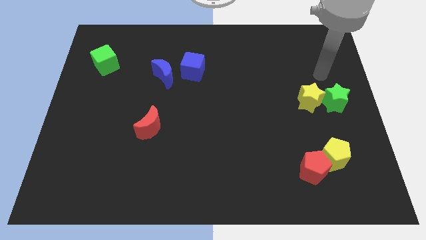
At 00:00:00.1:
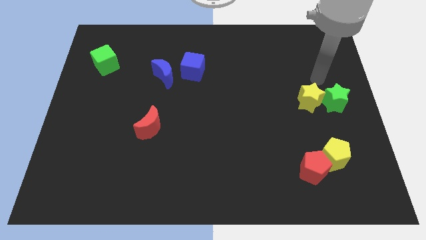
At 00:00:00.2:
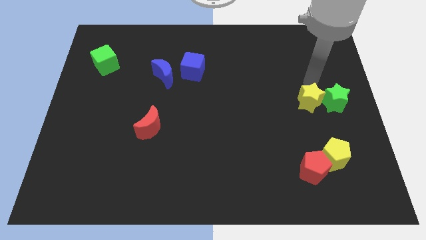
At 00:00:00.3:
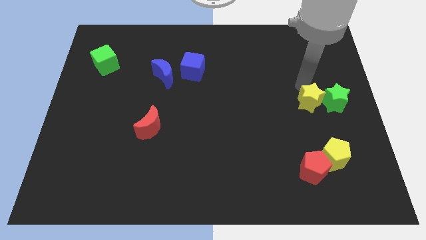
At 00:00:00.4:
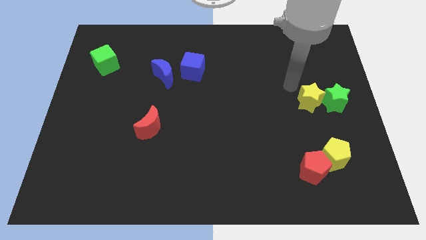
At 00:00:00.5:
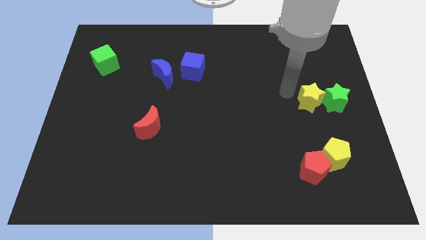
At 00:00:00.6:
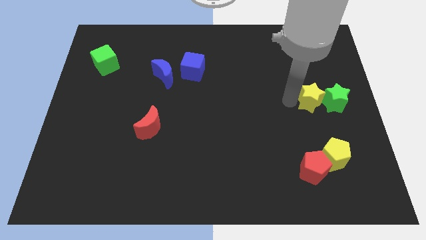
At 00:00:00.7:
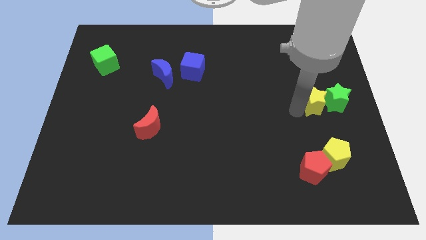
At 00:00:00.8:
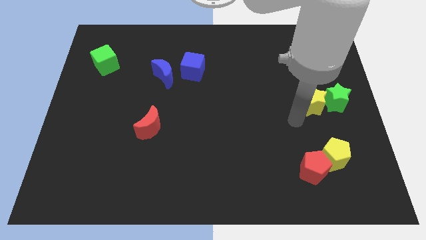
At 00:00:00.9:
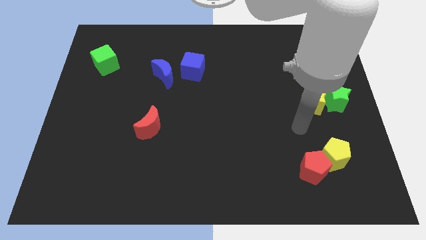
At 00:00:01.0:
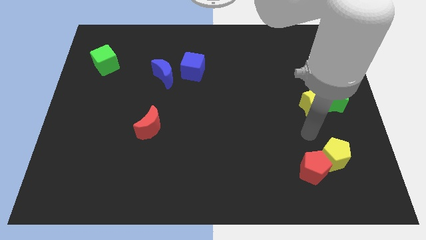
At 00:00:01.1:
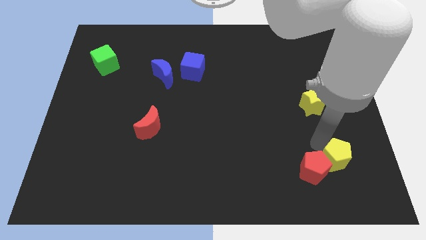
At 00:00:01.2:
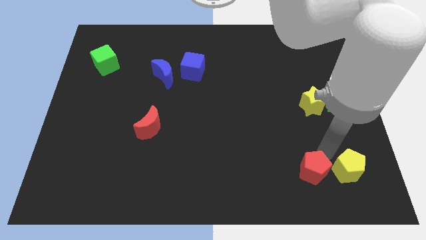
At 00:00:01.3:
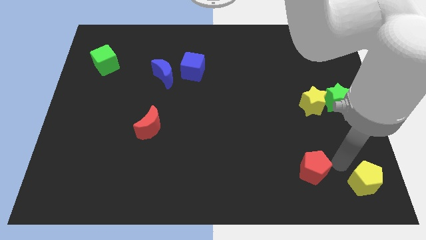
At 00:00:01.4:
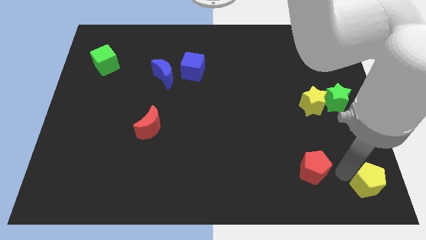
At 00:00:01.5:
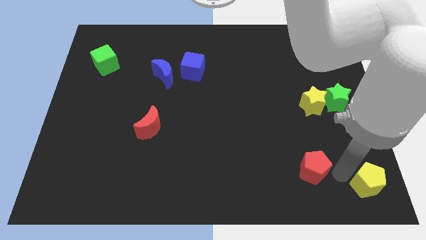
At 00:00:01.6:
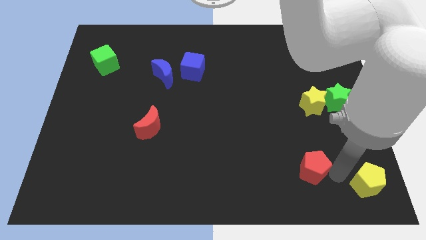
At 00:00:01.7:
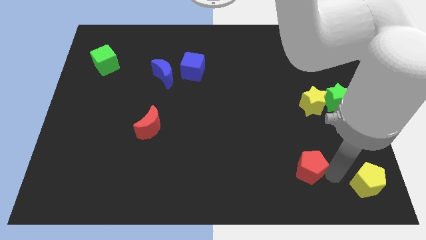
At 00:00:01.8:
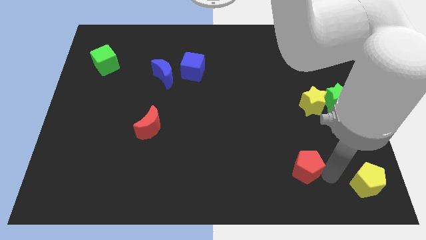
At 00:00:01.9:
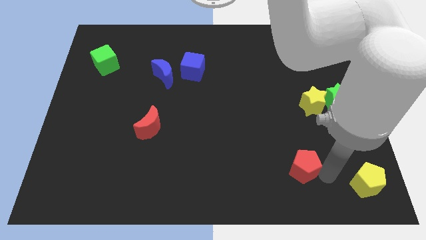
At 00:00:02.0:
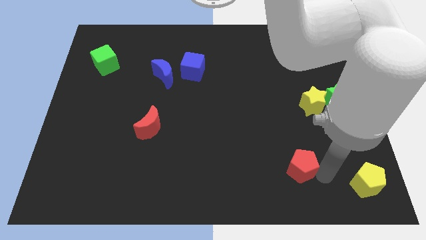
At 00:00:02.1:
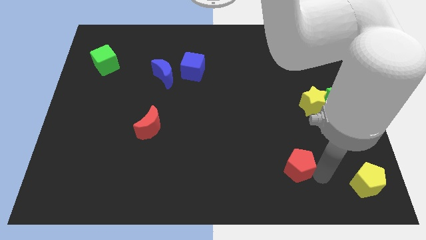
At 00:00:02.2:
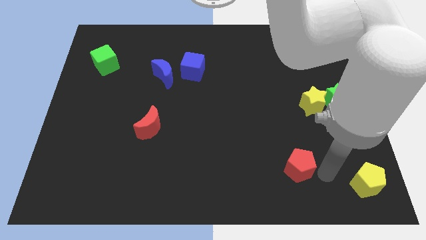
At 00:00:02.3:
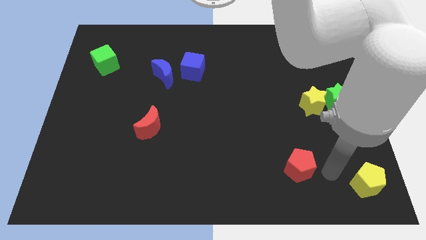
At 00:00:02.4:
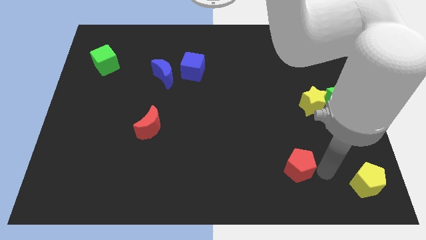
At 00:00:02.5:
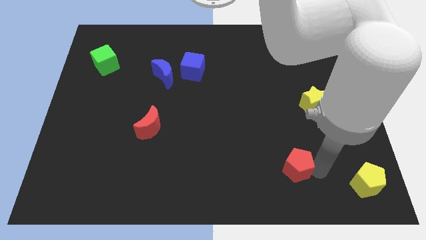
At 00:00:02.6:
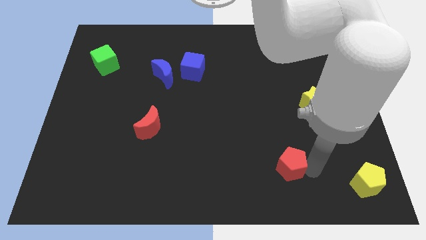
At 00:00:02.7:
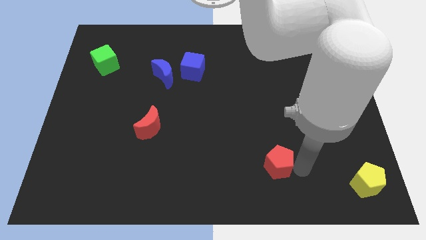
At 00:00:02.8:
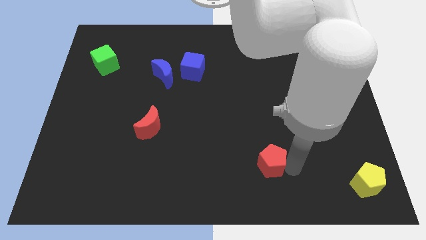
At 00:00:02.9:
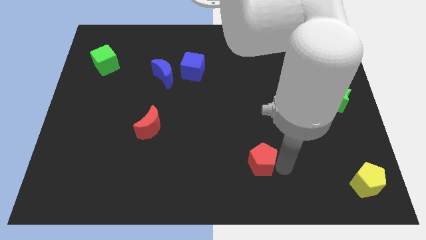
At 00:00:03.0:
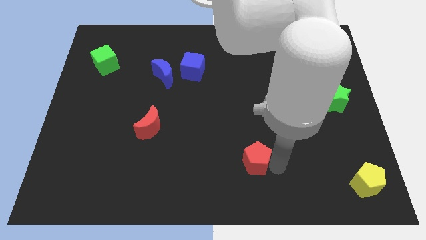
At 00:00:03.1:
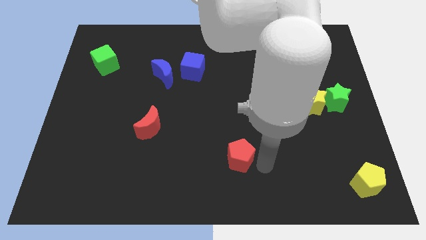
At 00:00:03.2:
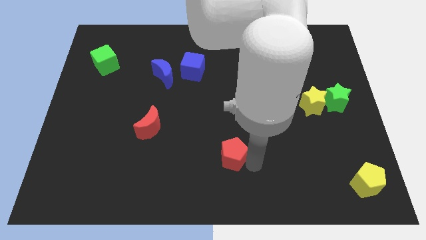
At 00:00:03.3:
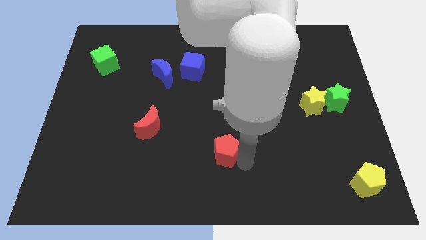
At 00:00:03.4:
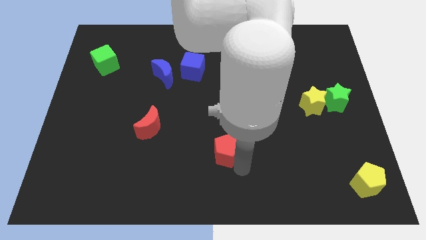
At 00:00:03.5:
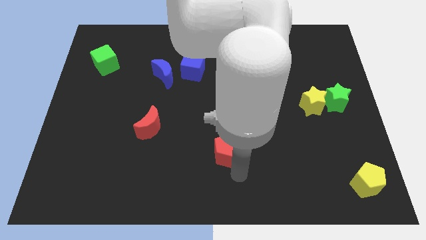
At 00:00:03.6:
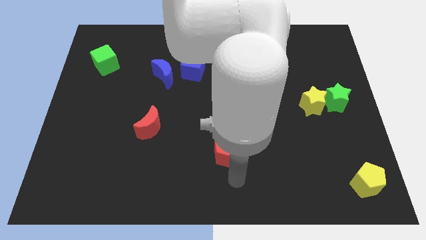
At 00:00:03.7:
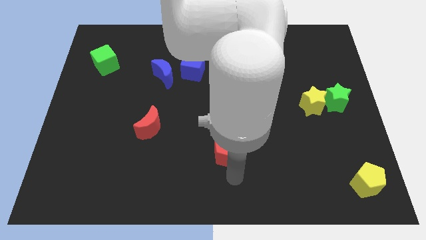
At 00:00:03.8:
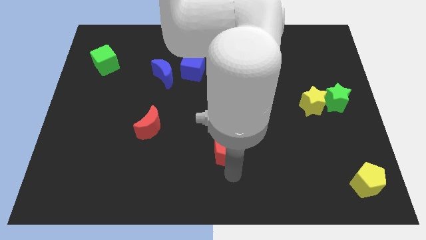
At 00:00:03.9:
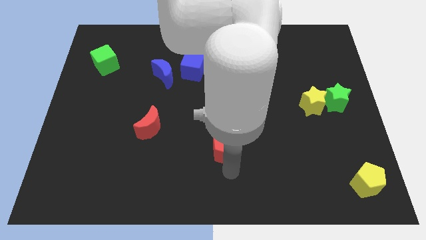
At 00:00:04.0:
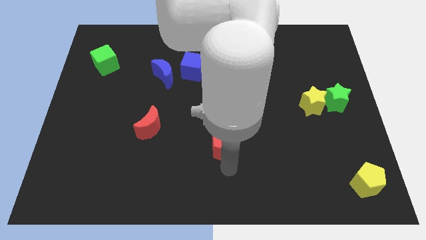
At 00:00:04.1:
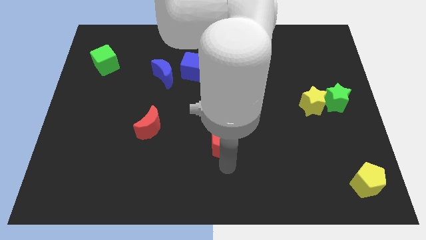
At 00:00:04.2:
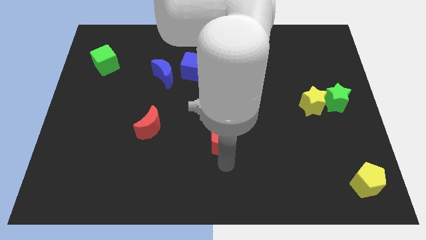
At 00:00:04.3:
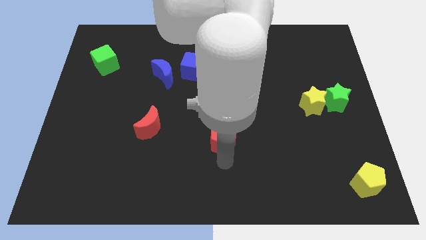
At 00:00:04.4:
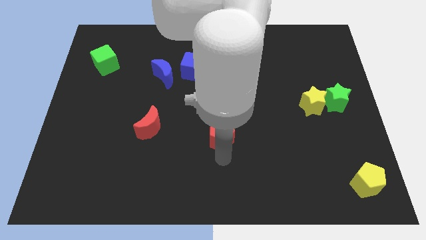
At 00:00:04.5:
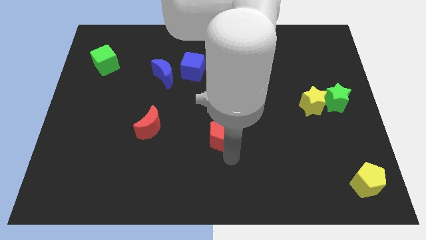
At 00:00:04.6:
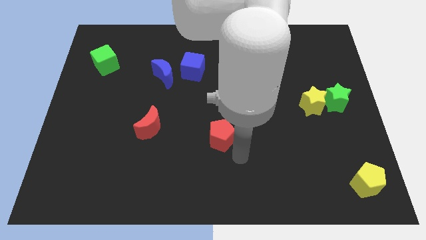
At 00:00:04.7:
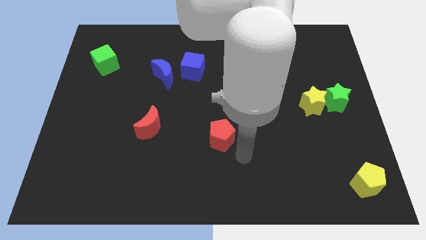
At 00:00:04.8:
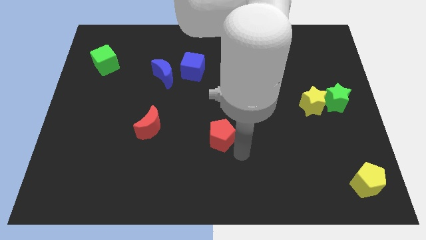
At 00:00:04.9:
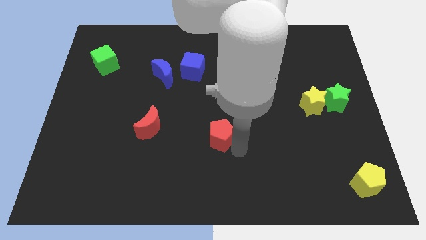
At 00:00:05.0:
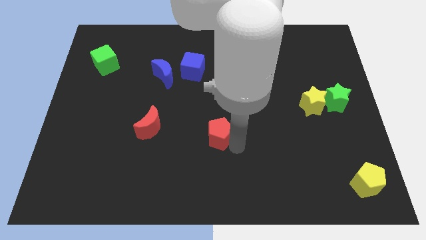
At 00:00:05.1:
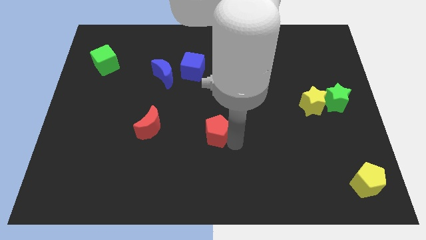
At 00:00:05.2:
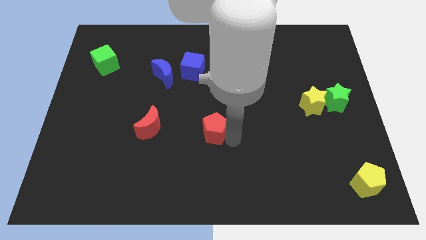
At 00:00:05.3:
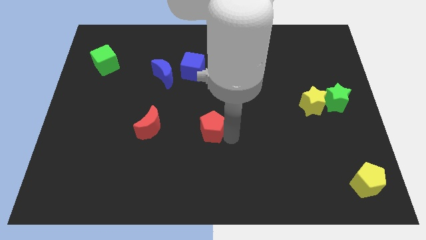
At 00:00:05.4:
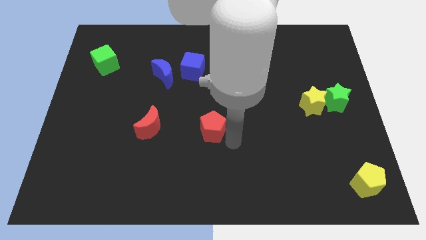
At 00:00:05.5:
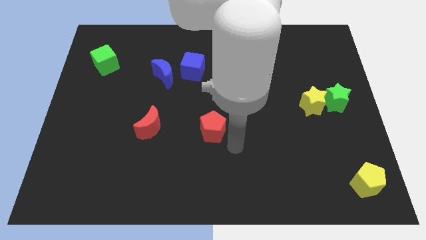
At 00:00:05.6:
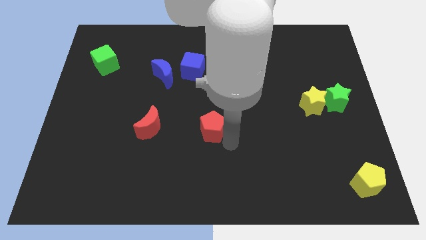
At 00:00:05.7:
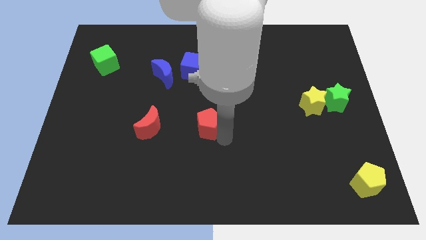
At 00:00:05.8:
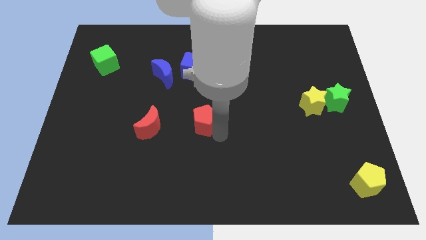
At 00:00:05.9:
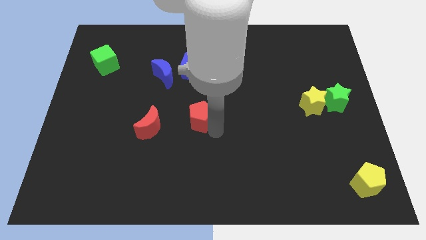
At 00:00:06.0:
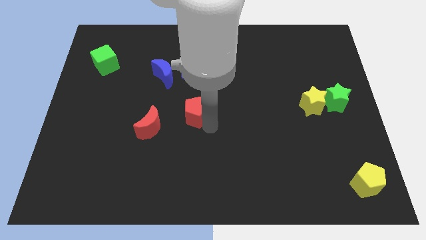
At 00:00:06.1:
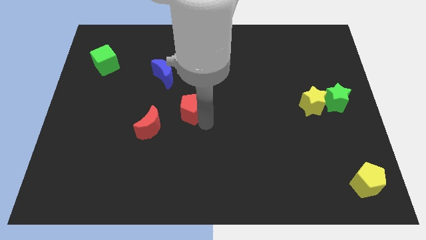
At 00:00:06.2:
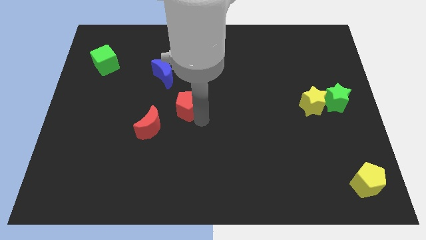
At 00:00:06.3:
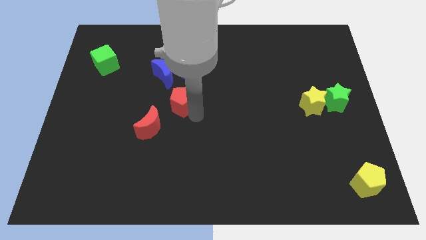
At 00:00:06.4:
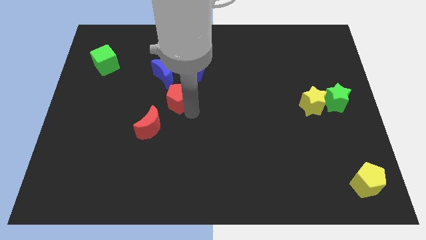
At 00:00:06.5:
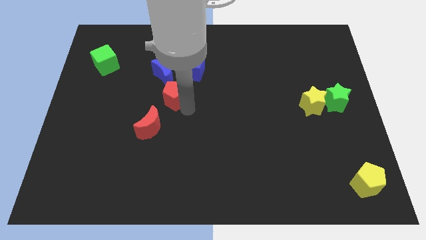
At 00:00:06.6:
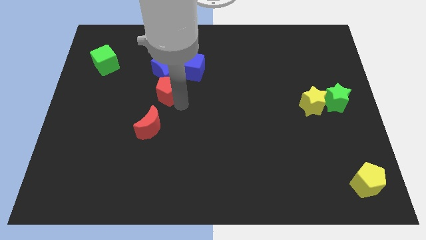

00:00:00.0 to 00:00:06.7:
push the red pentagon towards the blue moon
